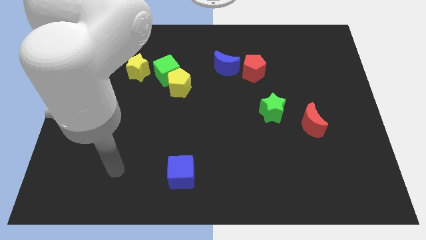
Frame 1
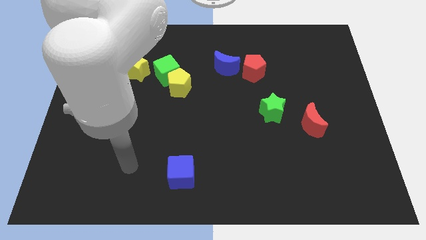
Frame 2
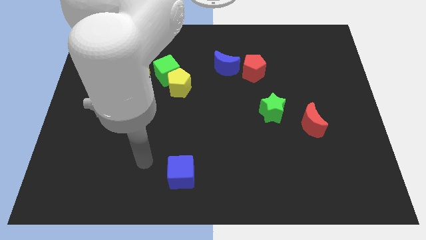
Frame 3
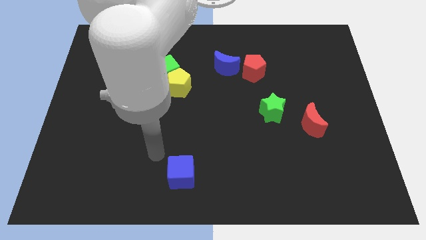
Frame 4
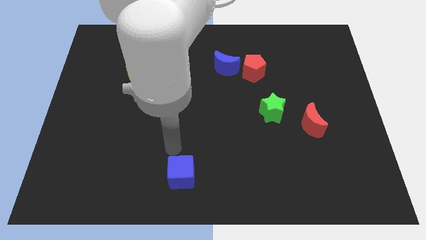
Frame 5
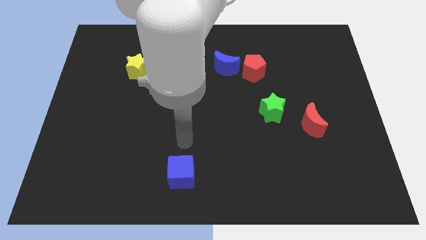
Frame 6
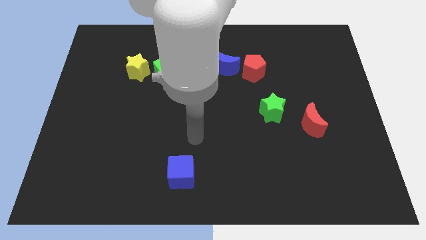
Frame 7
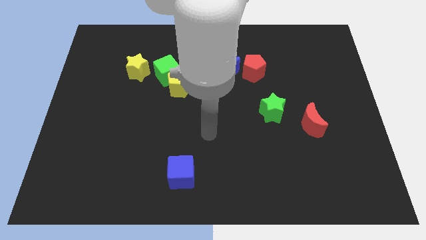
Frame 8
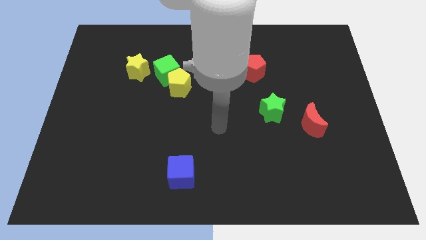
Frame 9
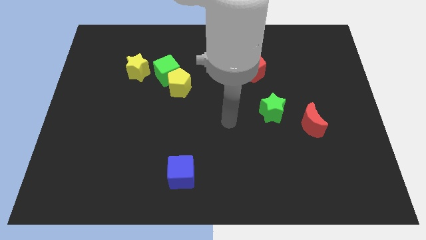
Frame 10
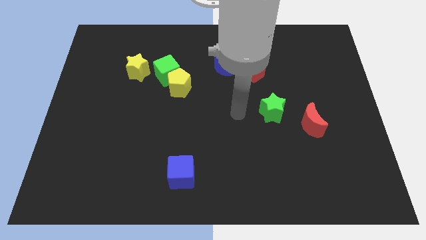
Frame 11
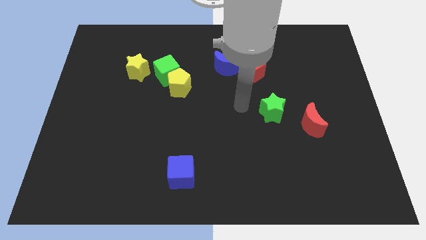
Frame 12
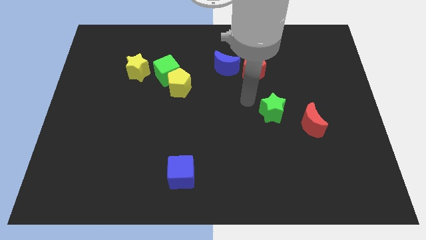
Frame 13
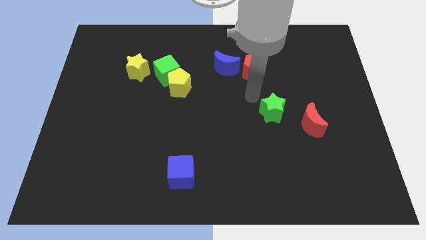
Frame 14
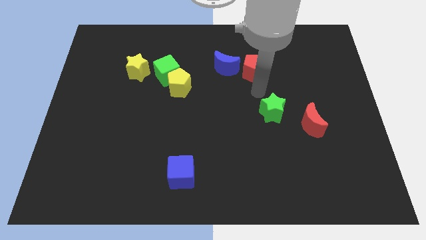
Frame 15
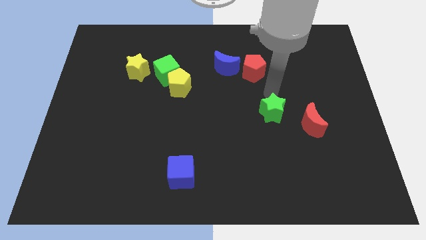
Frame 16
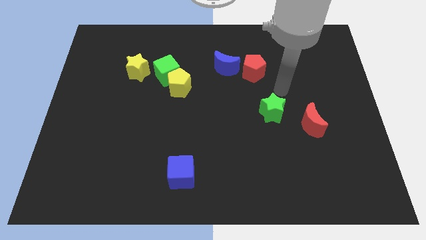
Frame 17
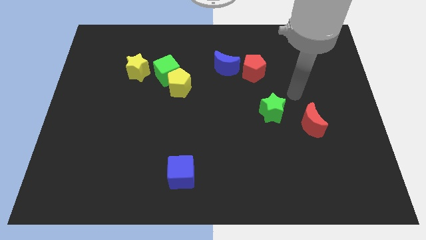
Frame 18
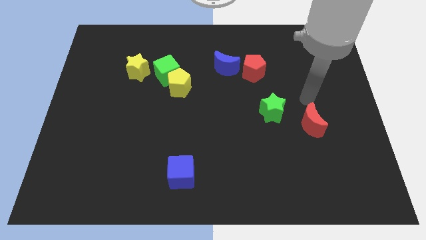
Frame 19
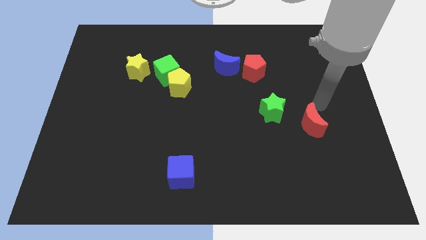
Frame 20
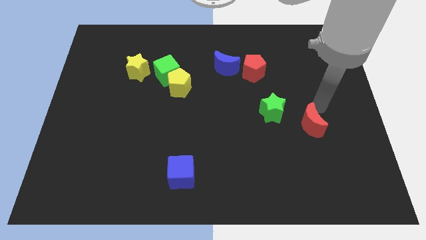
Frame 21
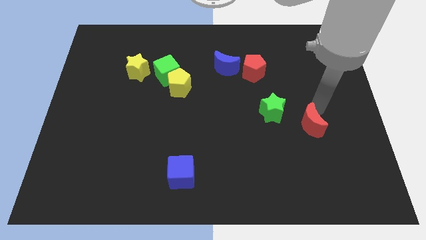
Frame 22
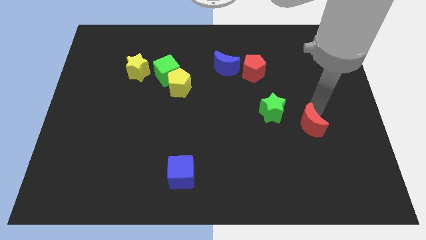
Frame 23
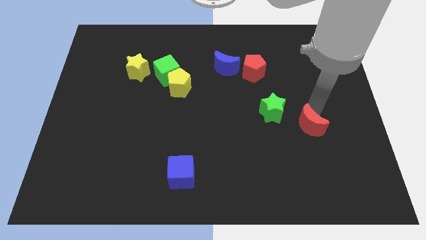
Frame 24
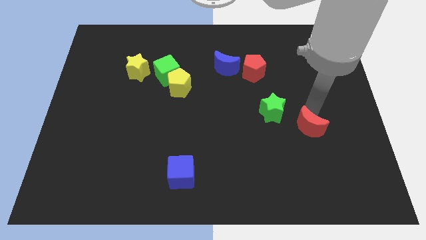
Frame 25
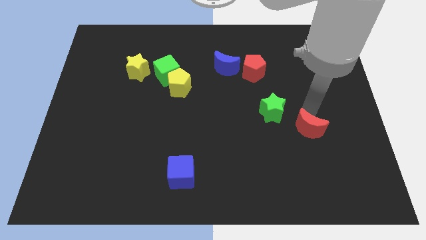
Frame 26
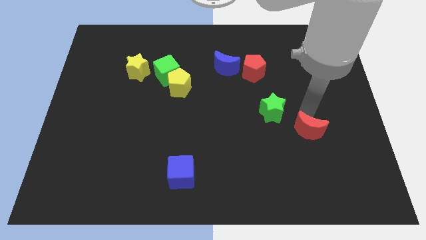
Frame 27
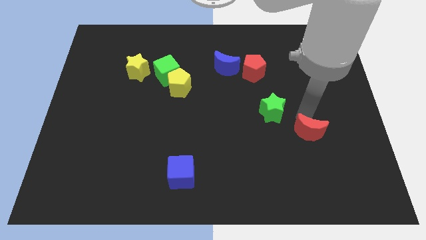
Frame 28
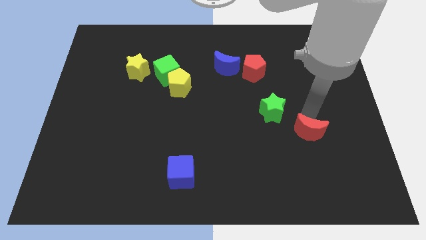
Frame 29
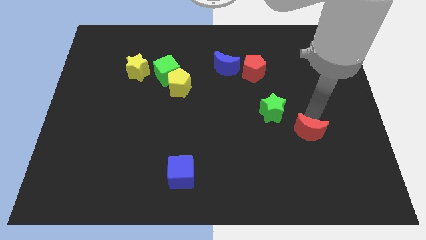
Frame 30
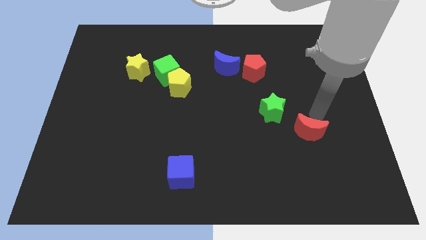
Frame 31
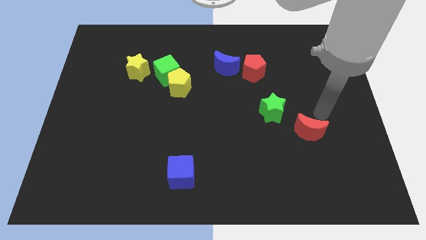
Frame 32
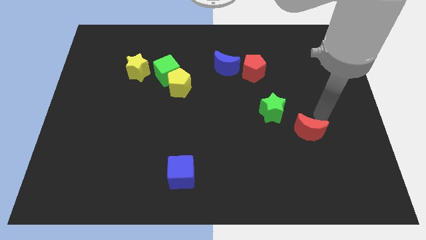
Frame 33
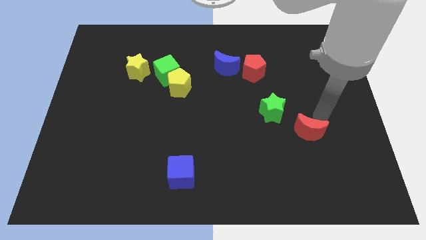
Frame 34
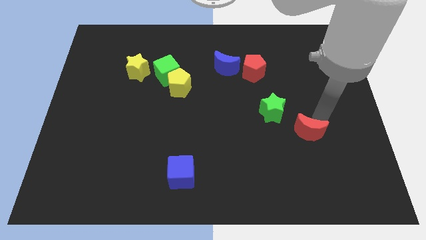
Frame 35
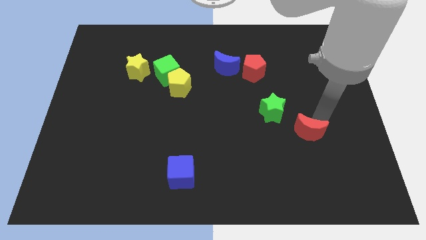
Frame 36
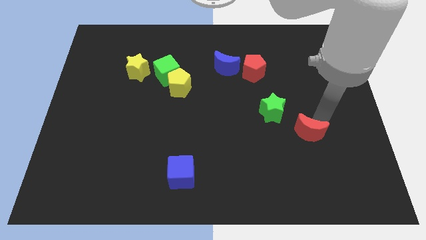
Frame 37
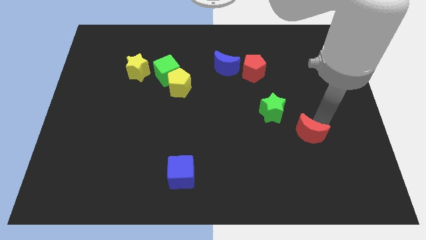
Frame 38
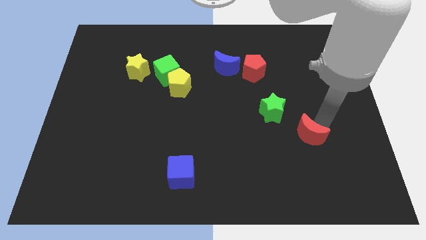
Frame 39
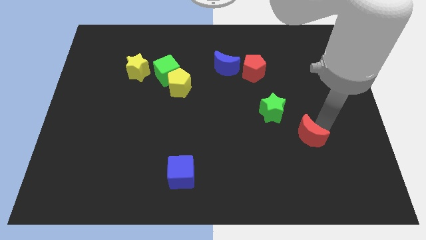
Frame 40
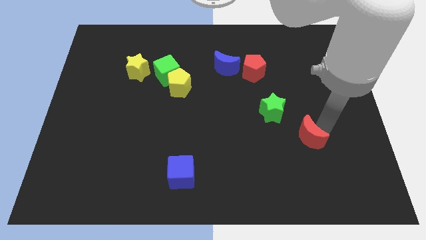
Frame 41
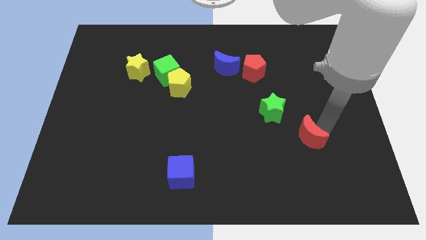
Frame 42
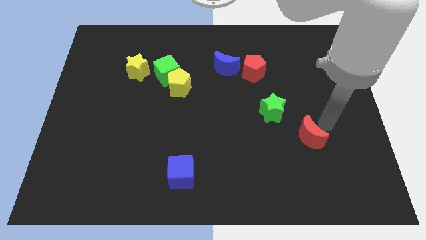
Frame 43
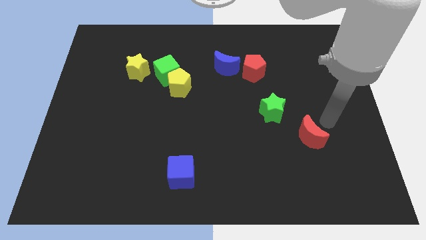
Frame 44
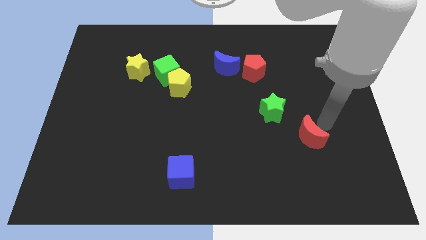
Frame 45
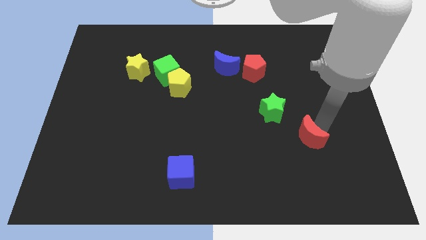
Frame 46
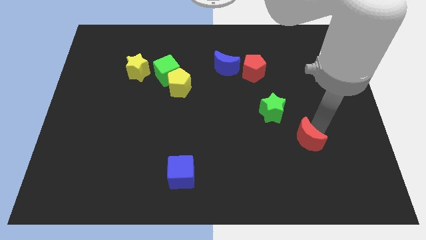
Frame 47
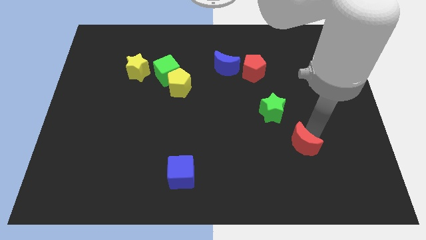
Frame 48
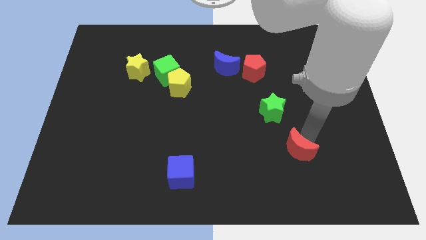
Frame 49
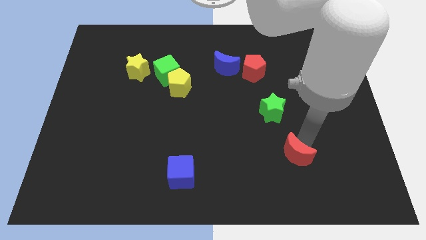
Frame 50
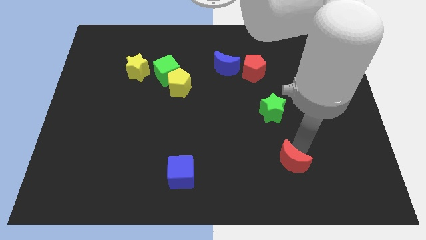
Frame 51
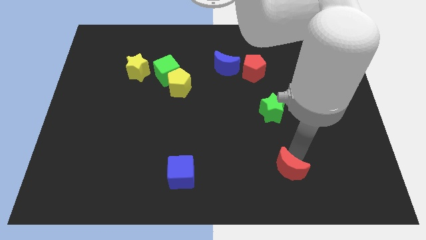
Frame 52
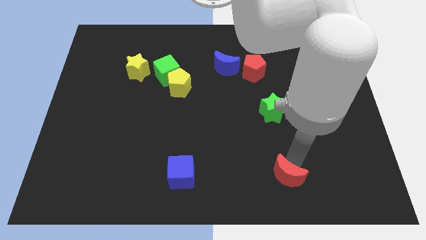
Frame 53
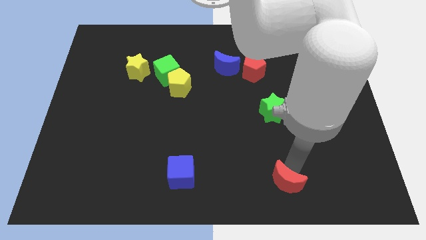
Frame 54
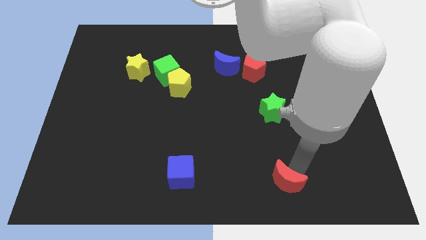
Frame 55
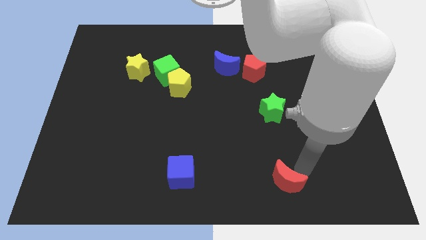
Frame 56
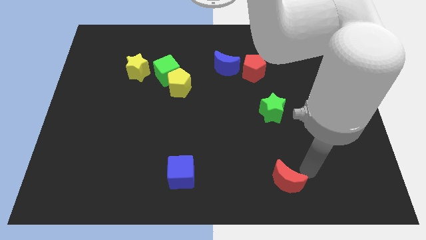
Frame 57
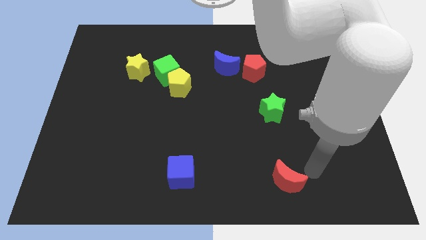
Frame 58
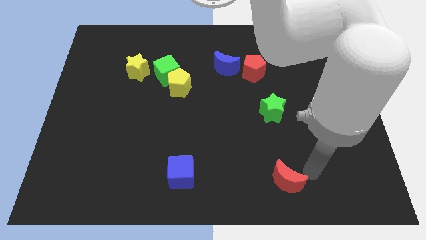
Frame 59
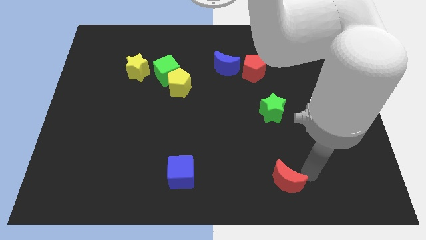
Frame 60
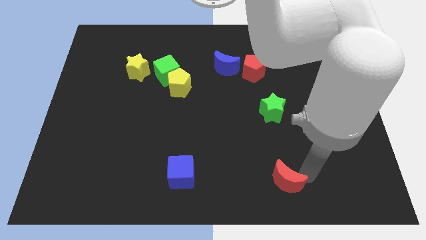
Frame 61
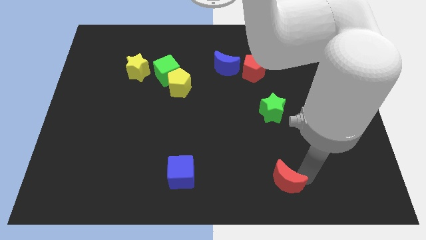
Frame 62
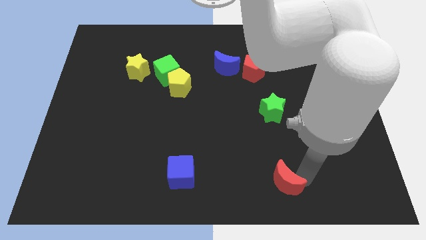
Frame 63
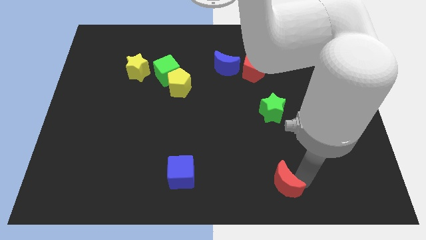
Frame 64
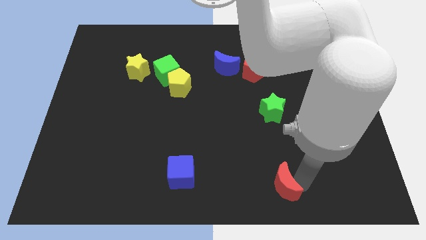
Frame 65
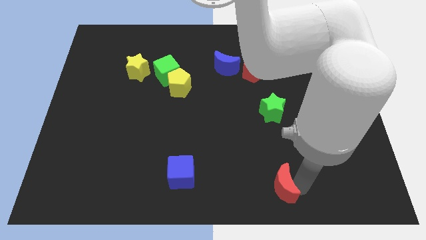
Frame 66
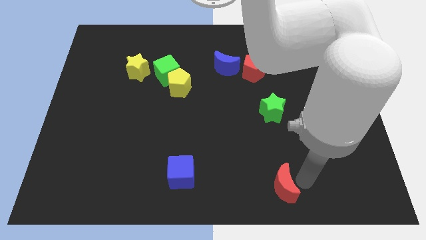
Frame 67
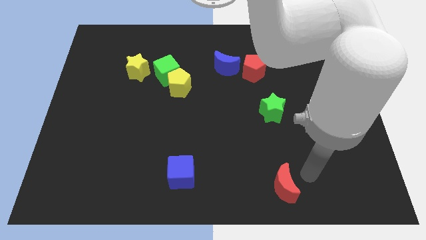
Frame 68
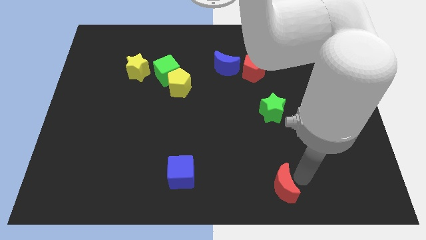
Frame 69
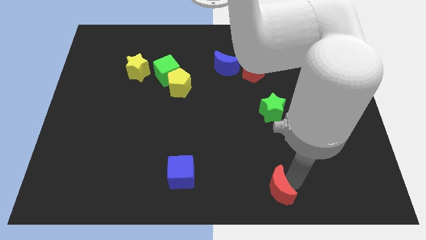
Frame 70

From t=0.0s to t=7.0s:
put the red moon to the bottom side
